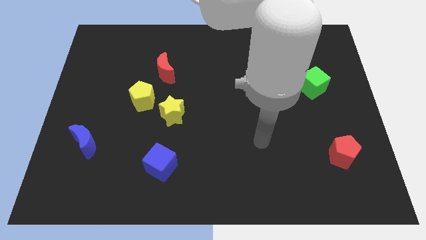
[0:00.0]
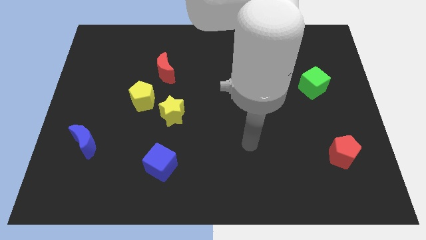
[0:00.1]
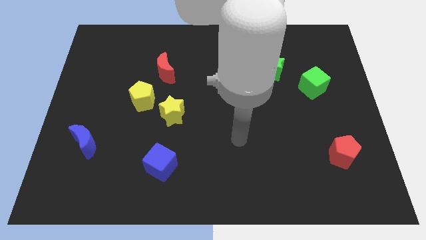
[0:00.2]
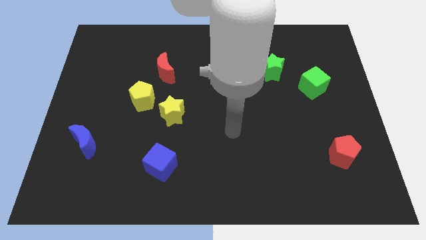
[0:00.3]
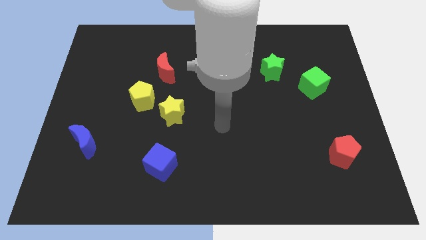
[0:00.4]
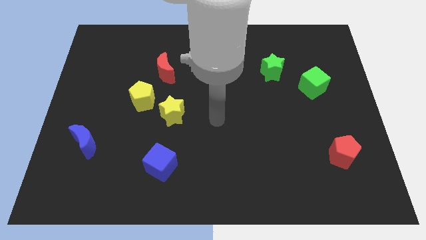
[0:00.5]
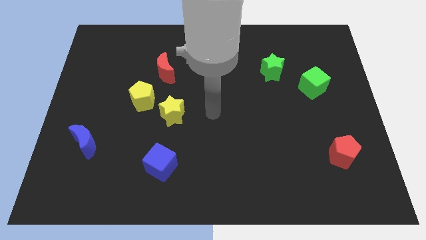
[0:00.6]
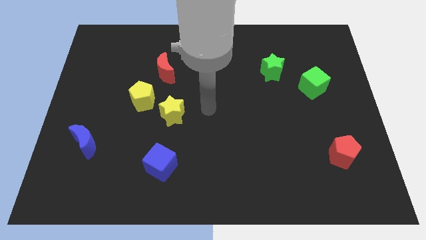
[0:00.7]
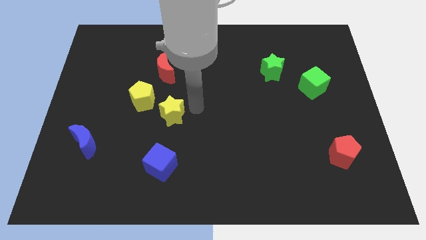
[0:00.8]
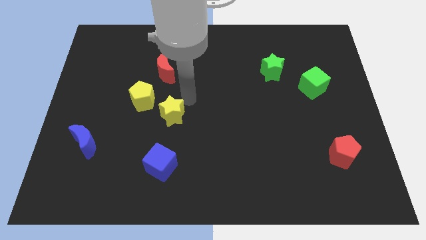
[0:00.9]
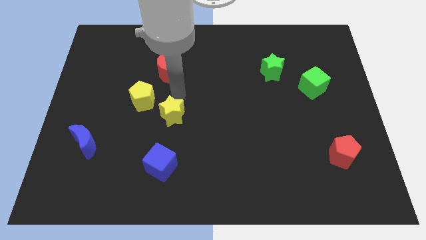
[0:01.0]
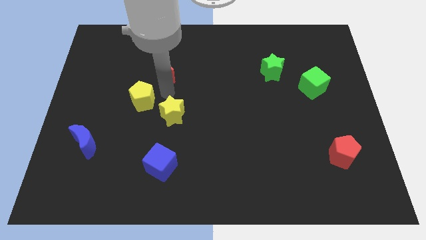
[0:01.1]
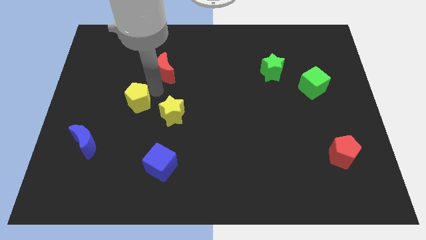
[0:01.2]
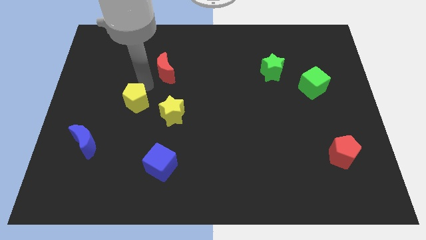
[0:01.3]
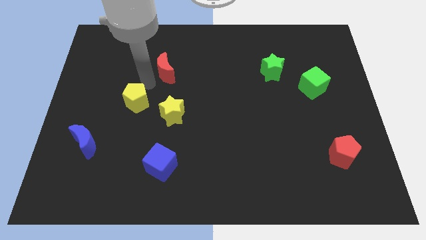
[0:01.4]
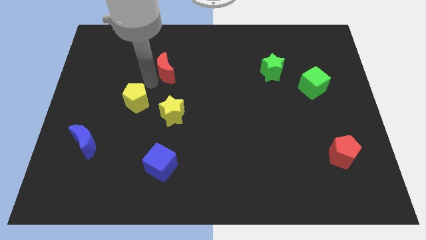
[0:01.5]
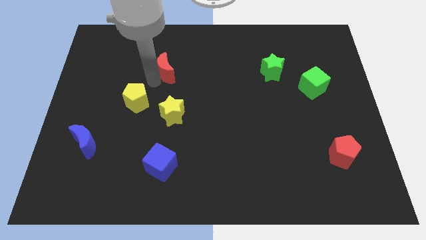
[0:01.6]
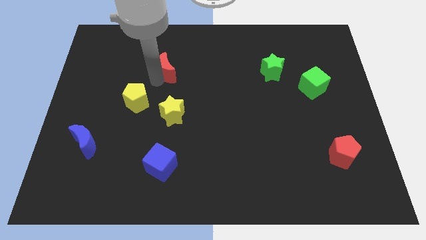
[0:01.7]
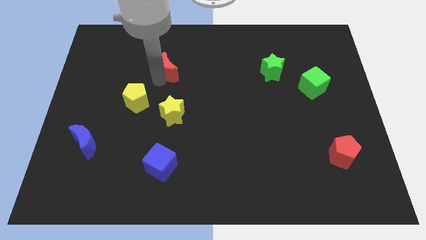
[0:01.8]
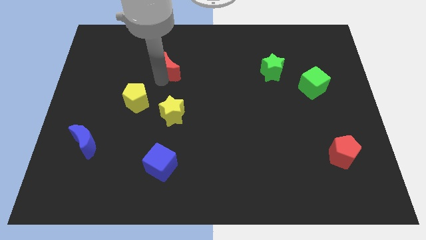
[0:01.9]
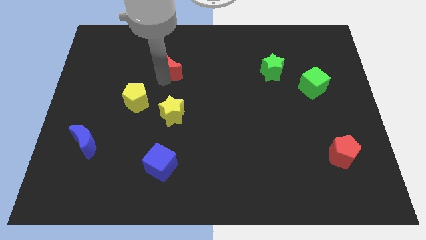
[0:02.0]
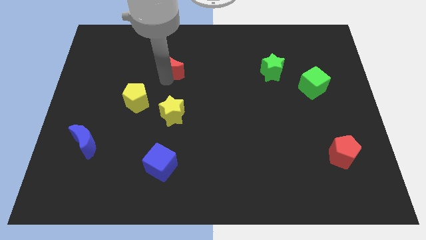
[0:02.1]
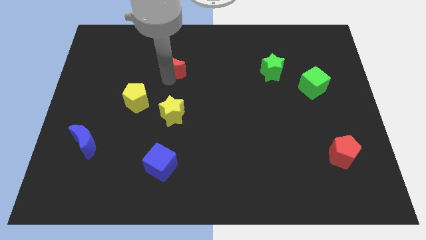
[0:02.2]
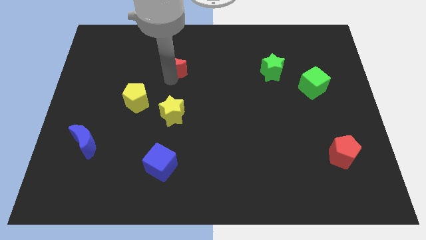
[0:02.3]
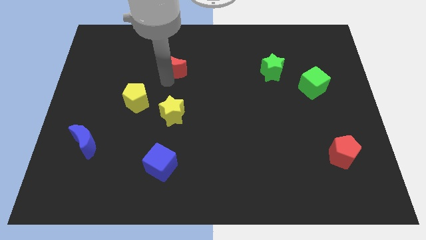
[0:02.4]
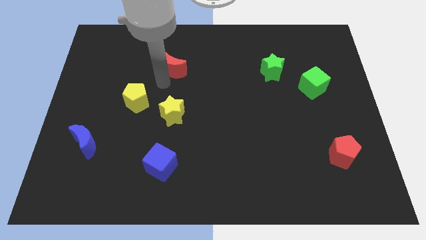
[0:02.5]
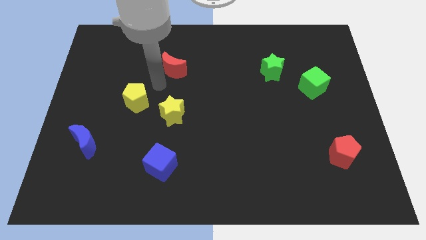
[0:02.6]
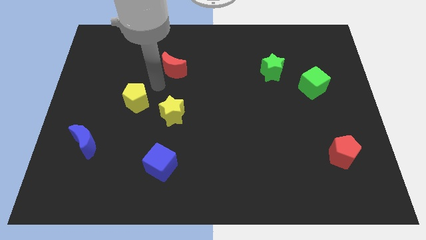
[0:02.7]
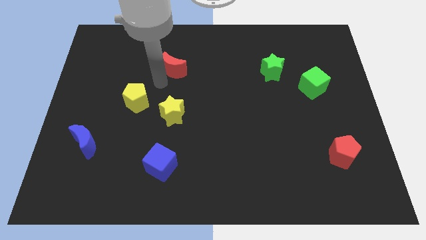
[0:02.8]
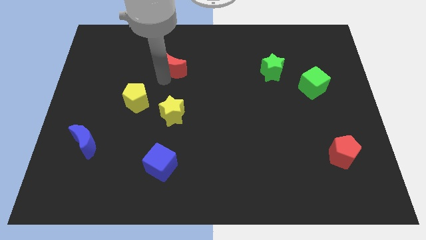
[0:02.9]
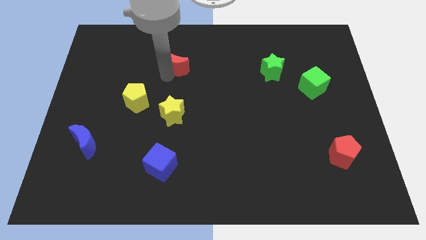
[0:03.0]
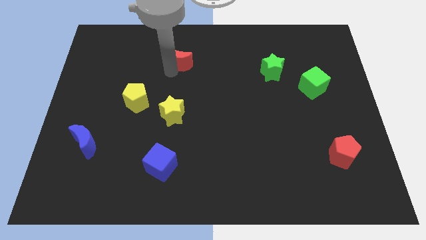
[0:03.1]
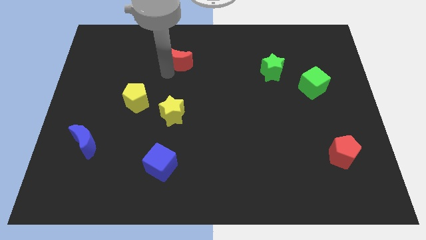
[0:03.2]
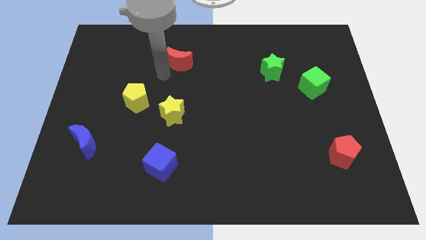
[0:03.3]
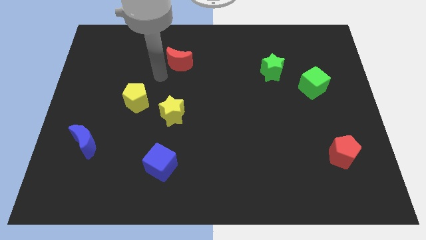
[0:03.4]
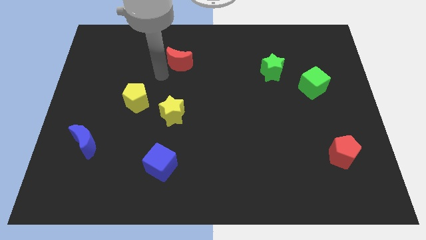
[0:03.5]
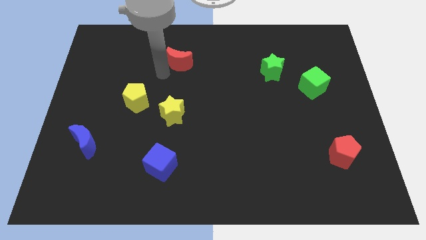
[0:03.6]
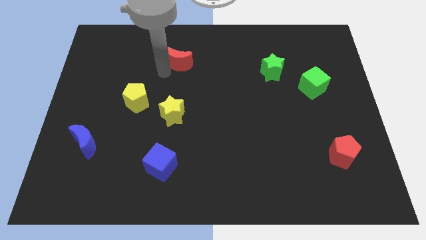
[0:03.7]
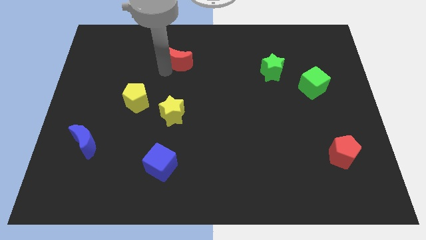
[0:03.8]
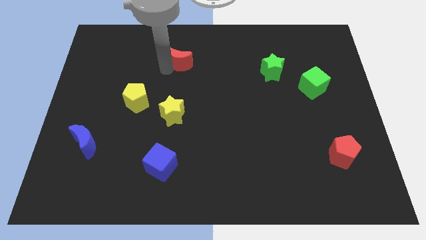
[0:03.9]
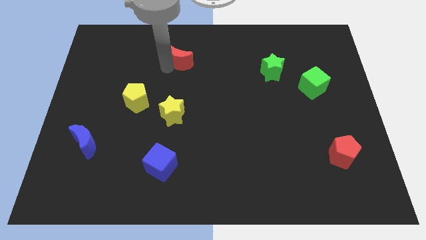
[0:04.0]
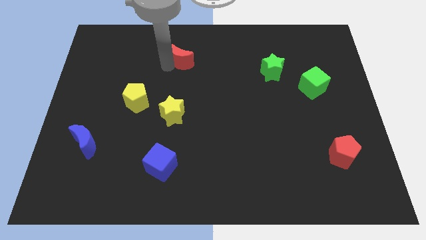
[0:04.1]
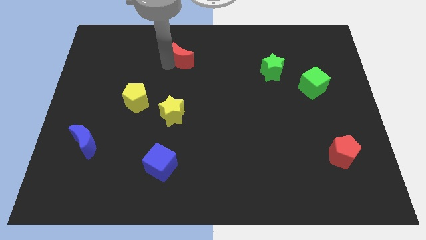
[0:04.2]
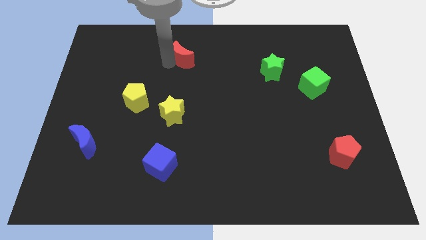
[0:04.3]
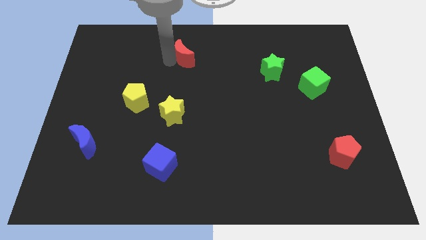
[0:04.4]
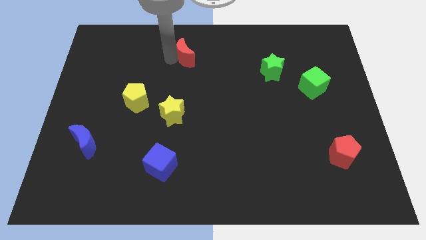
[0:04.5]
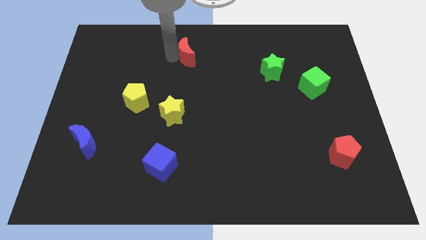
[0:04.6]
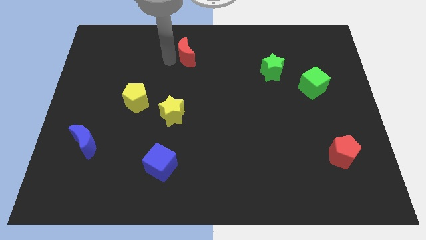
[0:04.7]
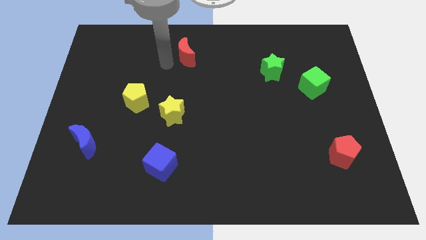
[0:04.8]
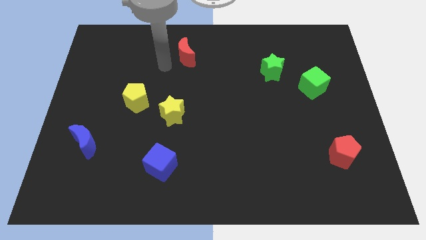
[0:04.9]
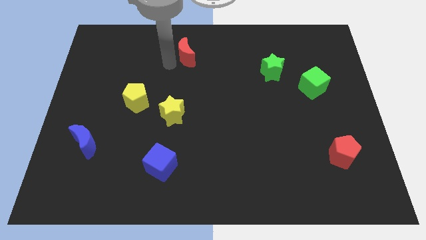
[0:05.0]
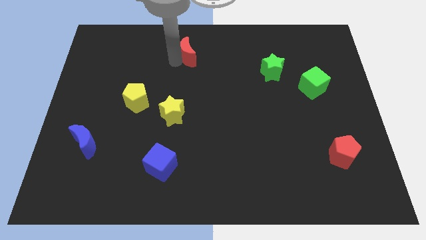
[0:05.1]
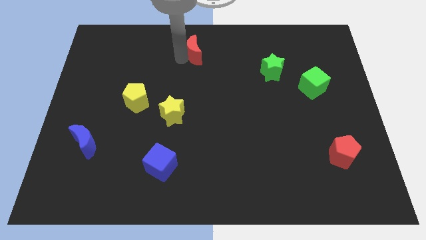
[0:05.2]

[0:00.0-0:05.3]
move the red moon to the towards your base
